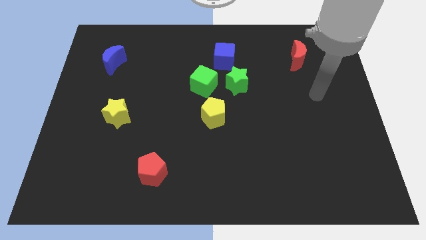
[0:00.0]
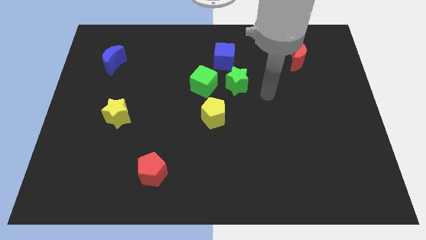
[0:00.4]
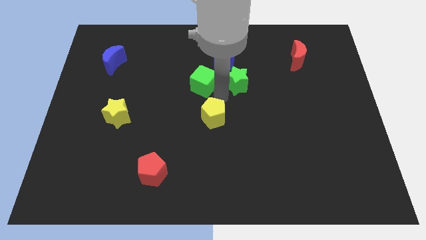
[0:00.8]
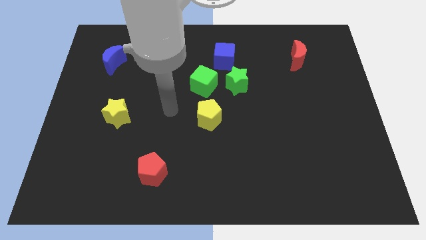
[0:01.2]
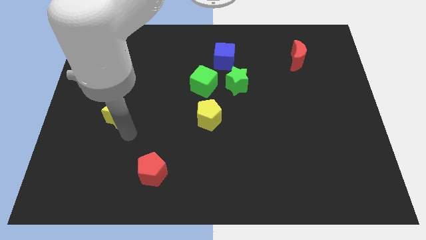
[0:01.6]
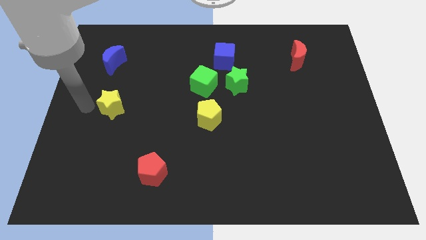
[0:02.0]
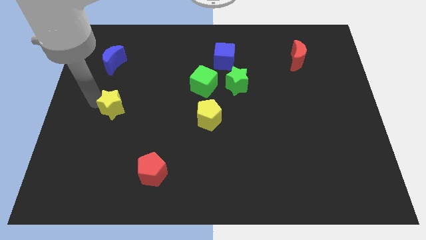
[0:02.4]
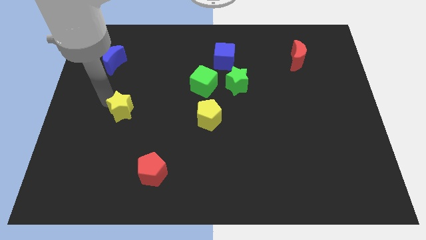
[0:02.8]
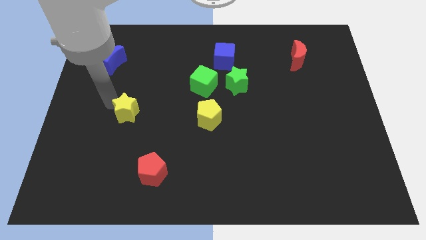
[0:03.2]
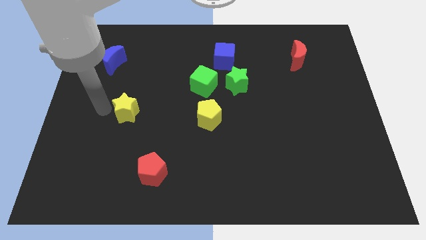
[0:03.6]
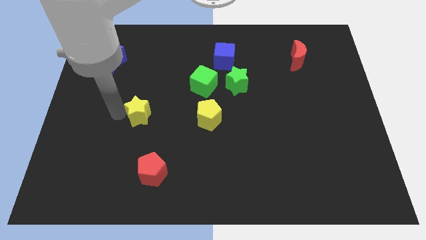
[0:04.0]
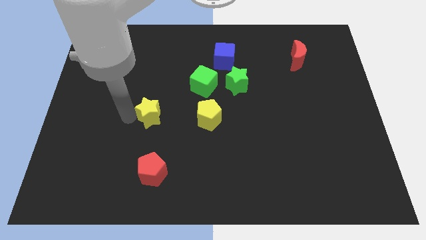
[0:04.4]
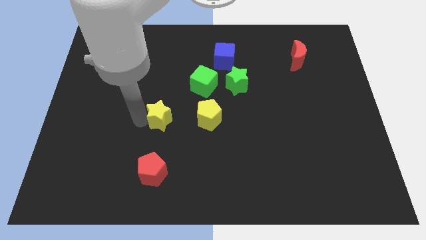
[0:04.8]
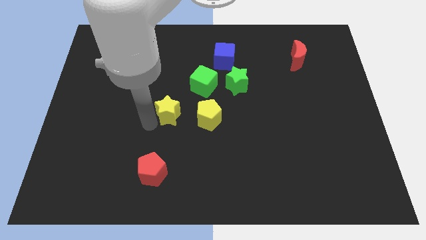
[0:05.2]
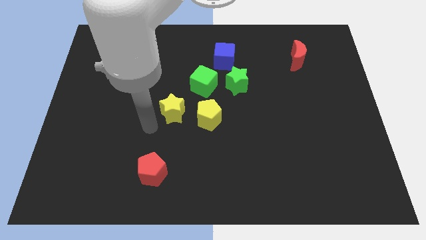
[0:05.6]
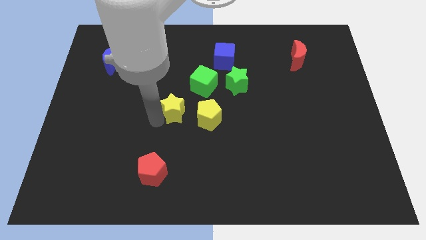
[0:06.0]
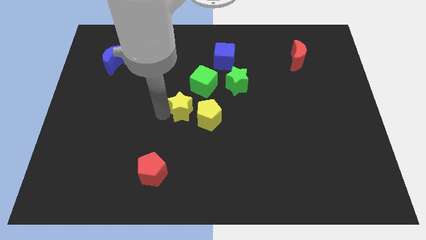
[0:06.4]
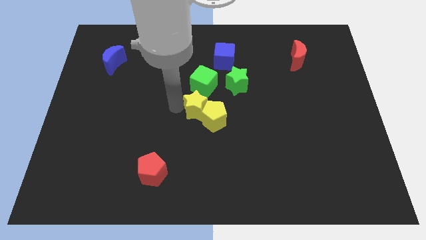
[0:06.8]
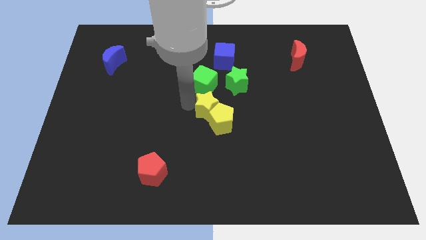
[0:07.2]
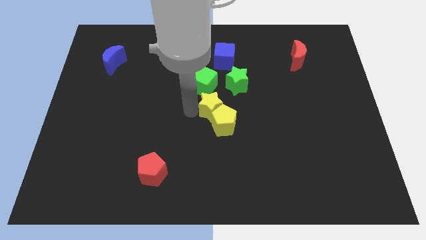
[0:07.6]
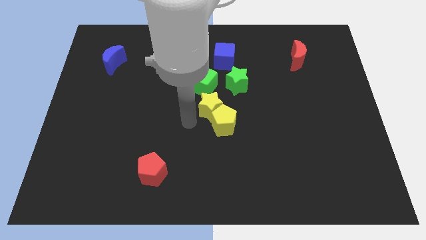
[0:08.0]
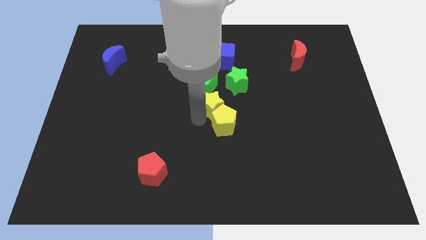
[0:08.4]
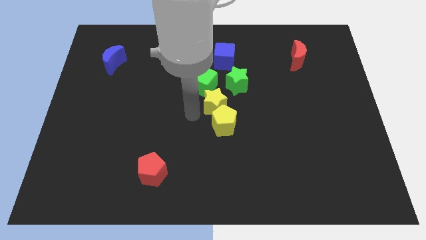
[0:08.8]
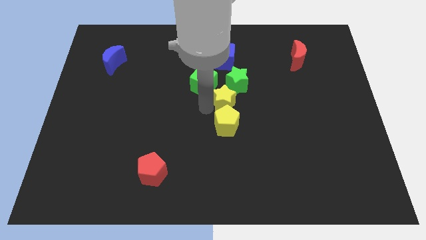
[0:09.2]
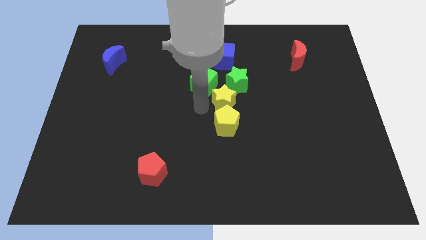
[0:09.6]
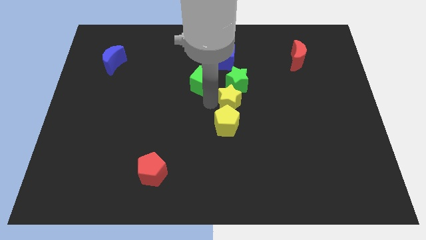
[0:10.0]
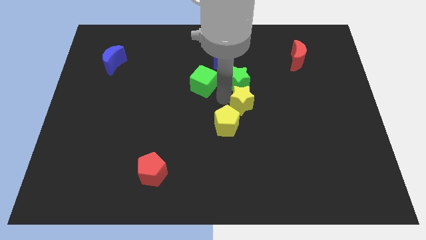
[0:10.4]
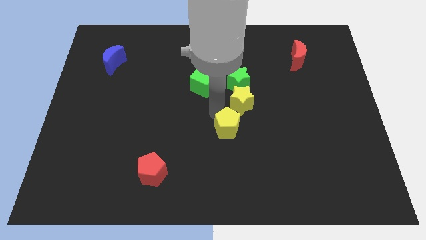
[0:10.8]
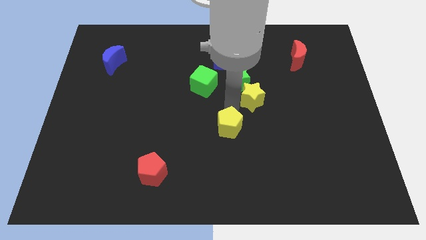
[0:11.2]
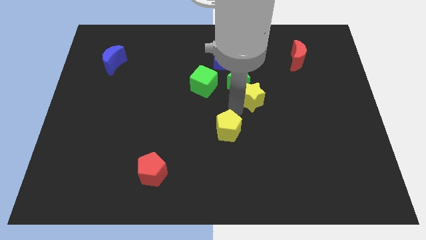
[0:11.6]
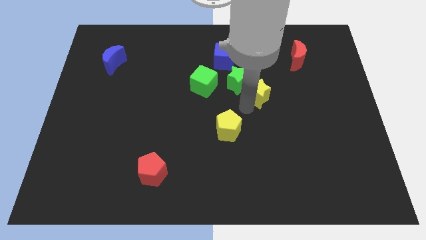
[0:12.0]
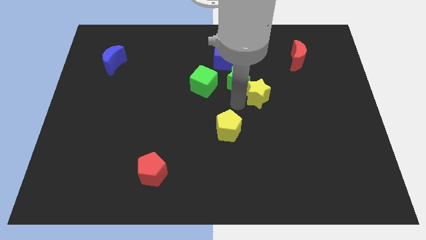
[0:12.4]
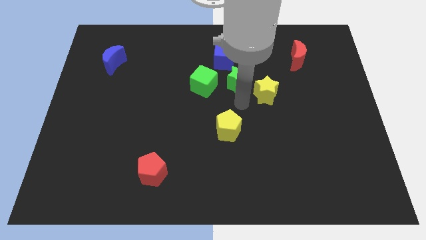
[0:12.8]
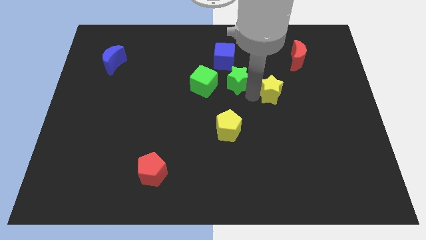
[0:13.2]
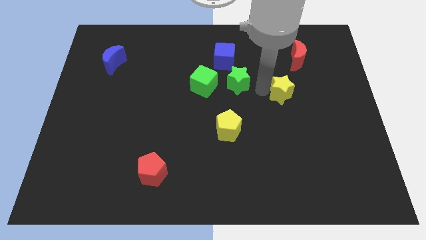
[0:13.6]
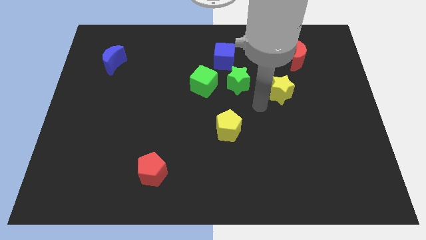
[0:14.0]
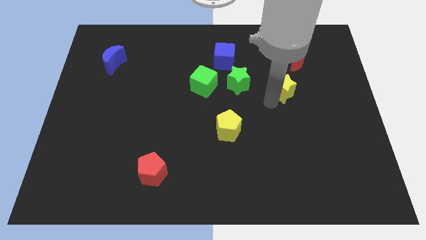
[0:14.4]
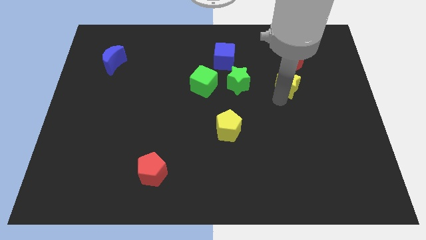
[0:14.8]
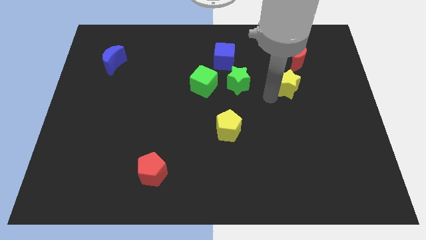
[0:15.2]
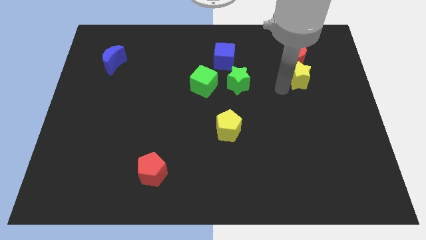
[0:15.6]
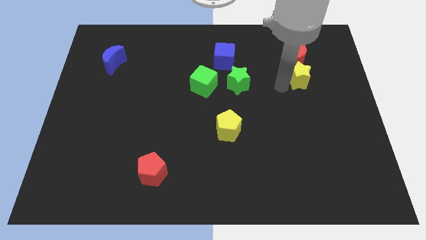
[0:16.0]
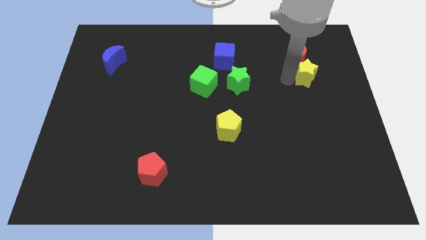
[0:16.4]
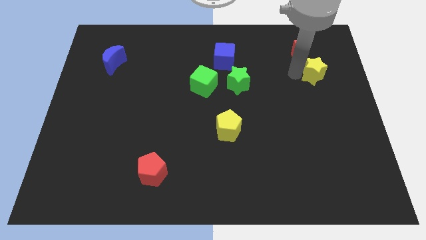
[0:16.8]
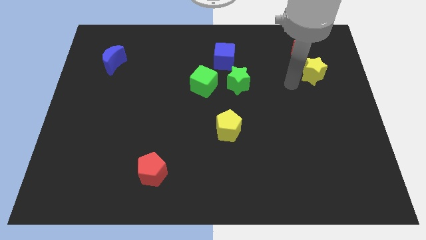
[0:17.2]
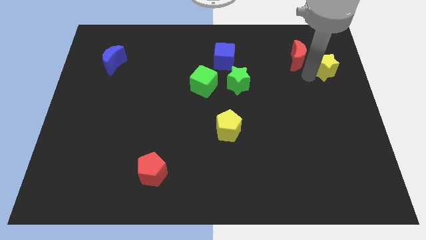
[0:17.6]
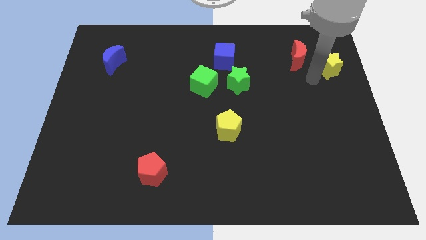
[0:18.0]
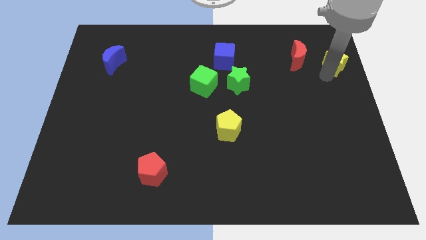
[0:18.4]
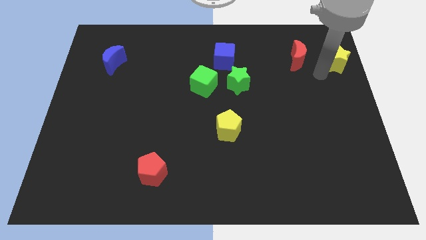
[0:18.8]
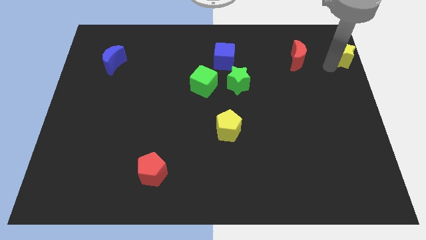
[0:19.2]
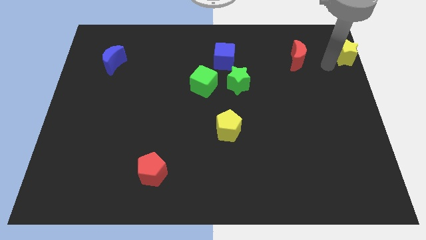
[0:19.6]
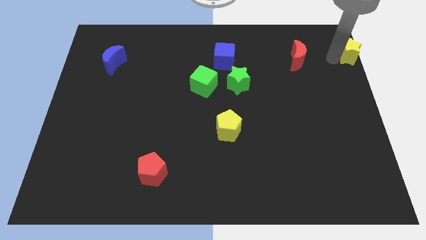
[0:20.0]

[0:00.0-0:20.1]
slide the yellow star to the top right

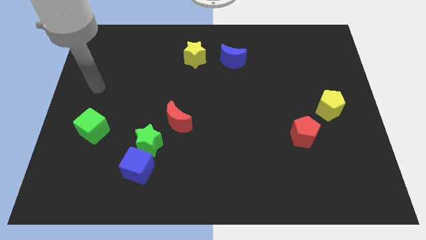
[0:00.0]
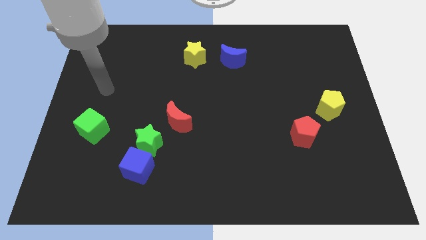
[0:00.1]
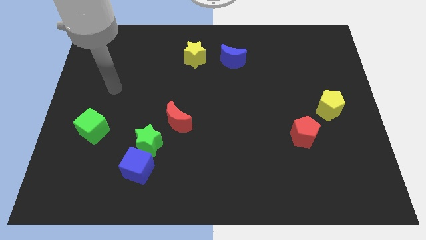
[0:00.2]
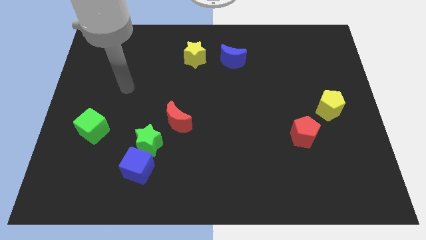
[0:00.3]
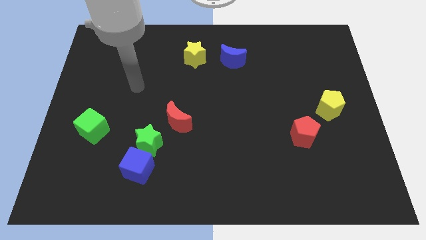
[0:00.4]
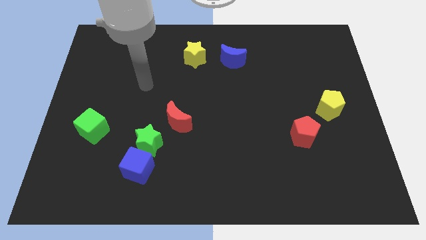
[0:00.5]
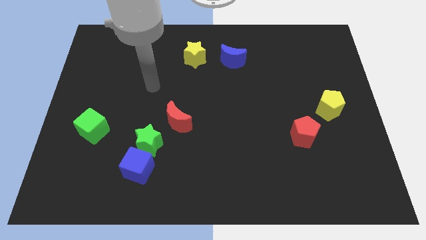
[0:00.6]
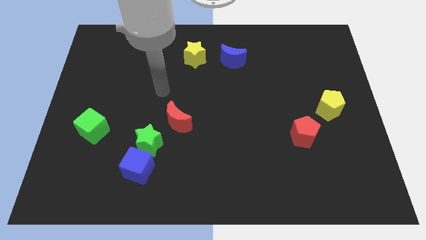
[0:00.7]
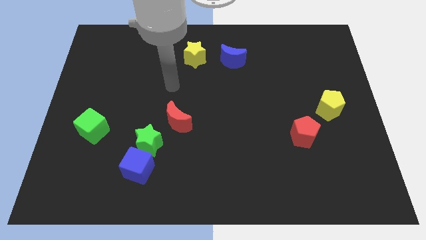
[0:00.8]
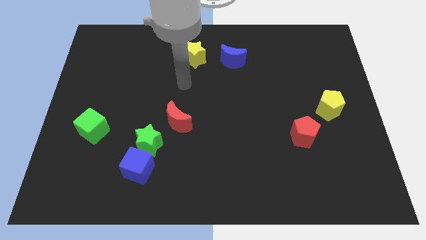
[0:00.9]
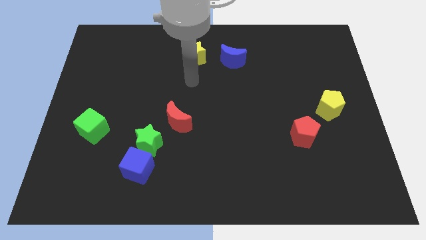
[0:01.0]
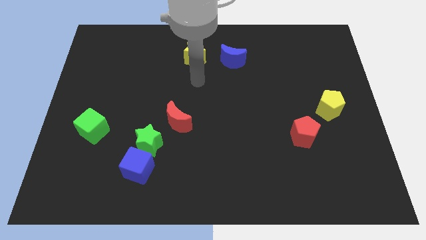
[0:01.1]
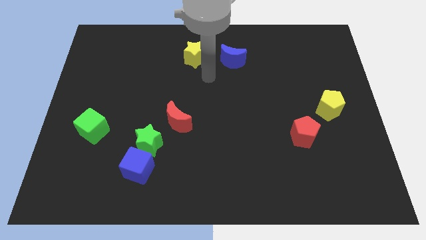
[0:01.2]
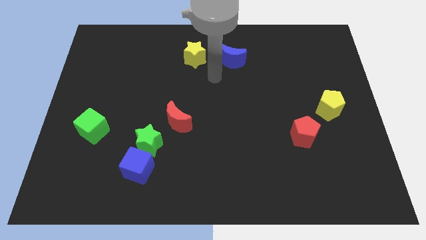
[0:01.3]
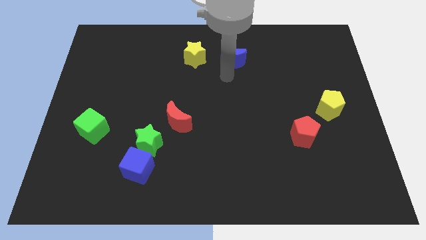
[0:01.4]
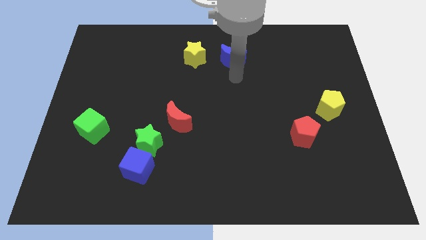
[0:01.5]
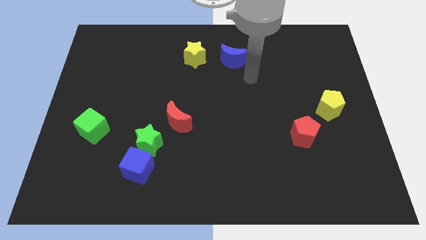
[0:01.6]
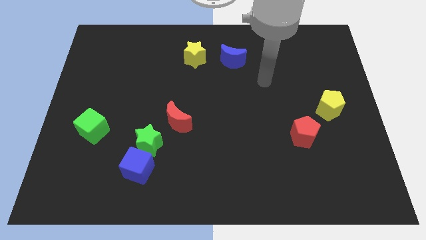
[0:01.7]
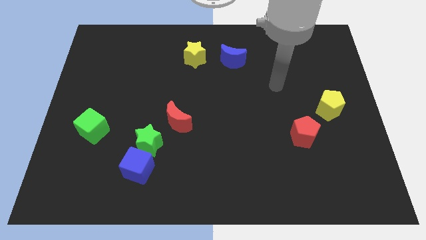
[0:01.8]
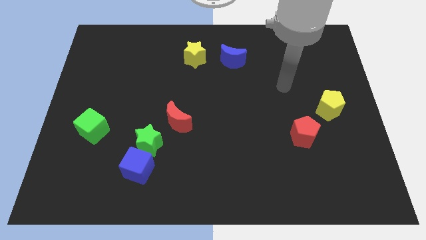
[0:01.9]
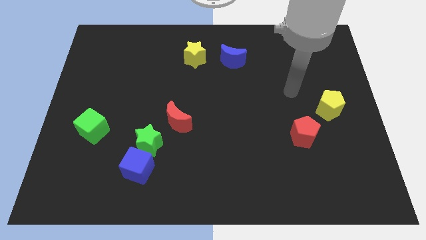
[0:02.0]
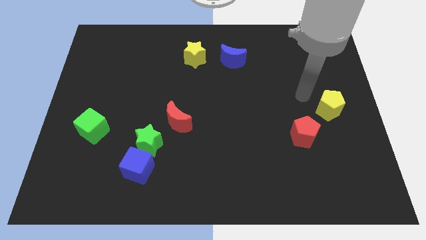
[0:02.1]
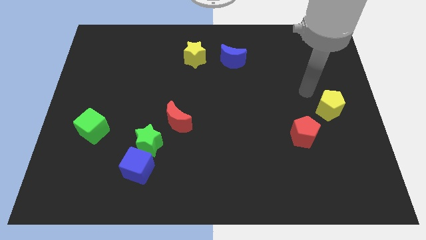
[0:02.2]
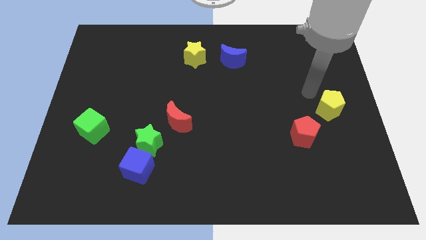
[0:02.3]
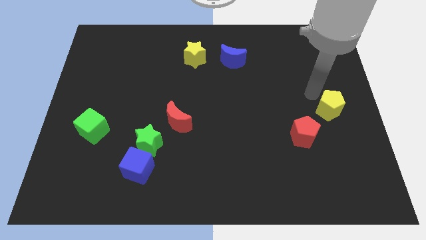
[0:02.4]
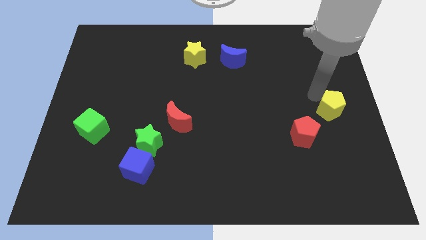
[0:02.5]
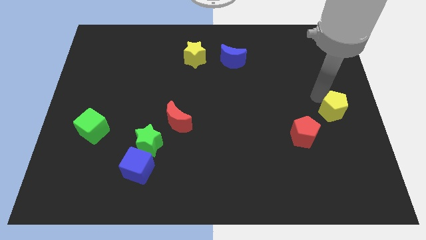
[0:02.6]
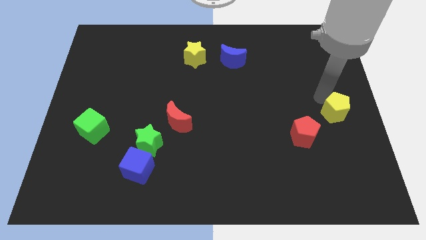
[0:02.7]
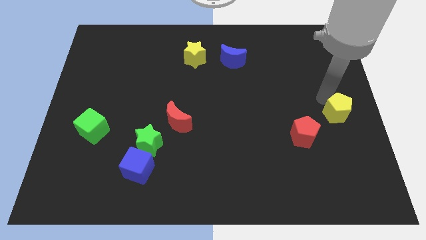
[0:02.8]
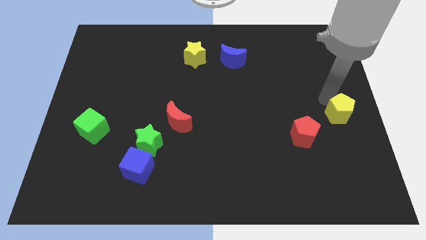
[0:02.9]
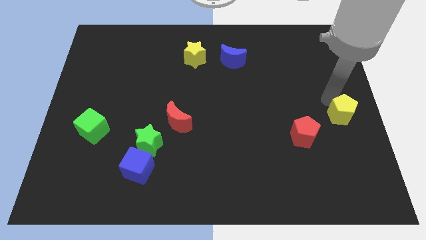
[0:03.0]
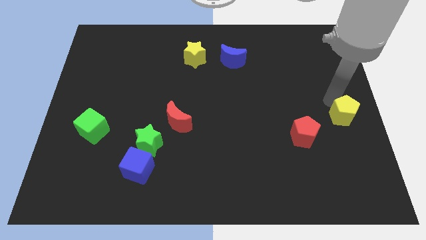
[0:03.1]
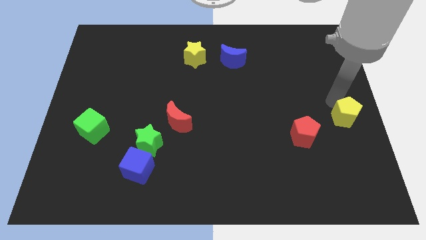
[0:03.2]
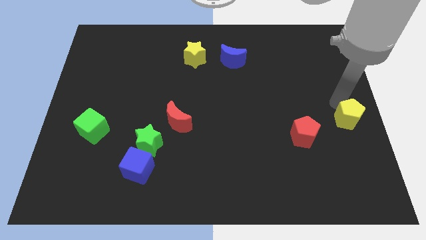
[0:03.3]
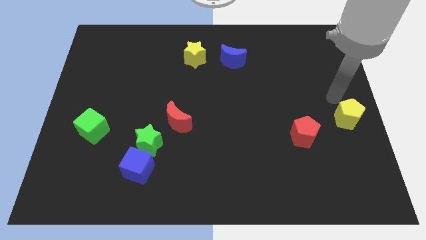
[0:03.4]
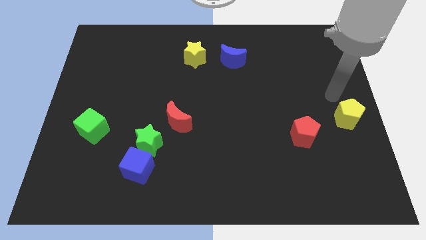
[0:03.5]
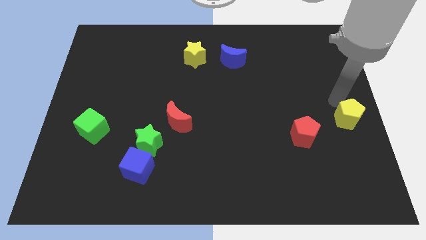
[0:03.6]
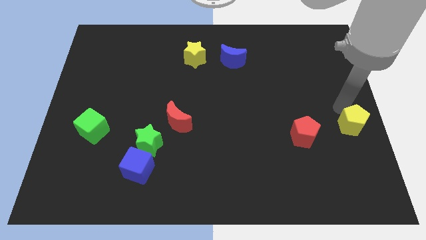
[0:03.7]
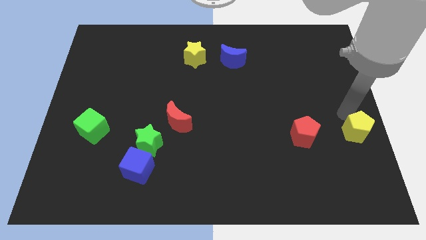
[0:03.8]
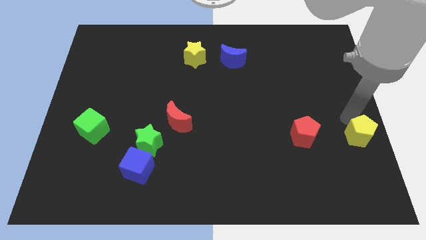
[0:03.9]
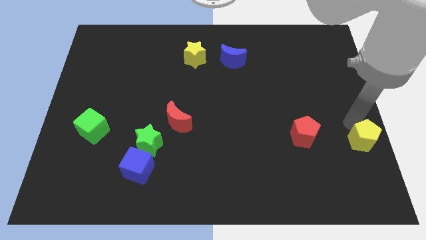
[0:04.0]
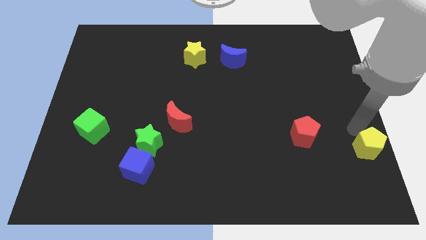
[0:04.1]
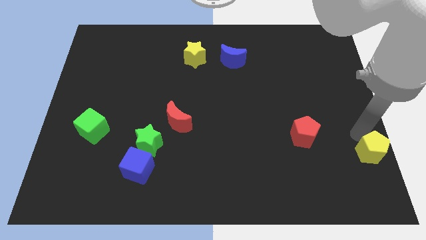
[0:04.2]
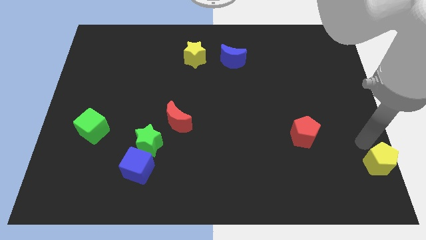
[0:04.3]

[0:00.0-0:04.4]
put the yellow pentagon to the bottom right corner
